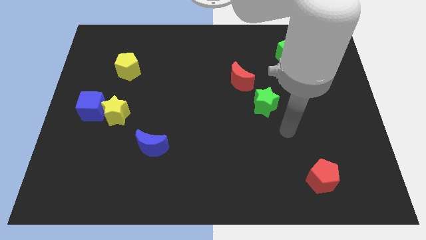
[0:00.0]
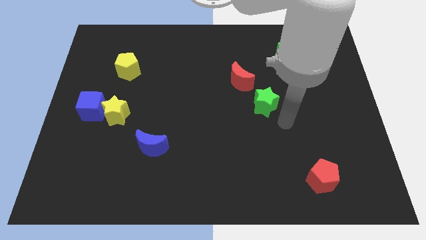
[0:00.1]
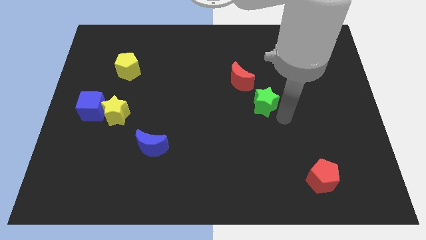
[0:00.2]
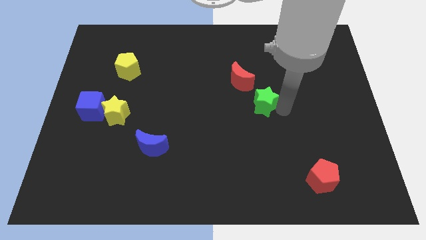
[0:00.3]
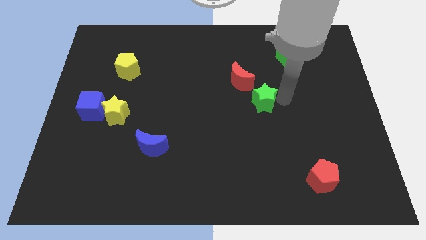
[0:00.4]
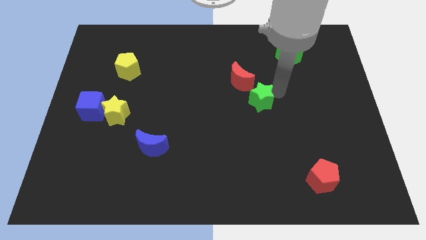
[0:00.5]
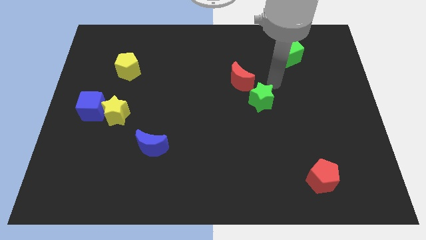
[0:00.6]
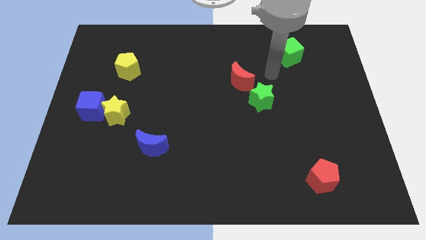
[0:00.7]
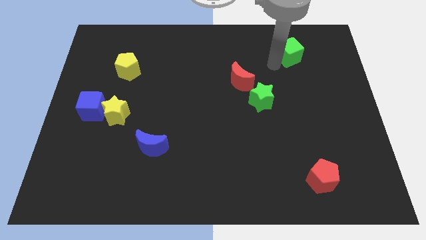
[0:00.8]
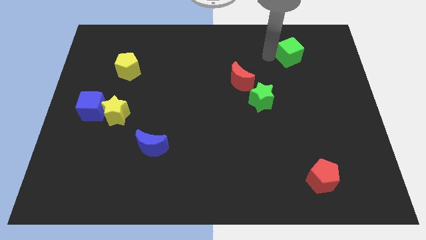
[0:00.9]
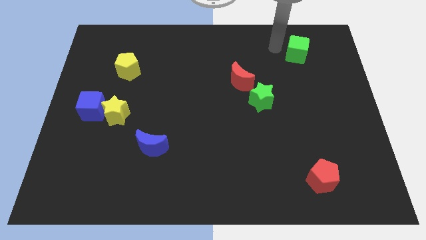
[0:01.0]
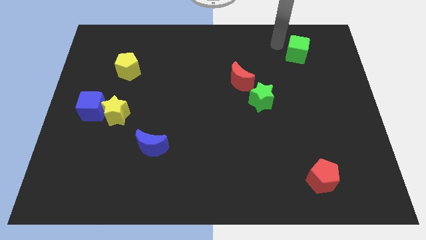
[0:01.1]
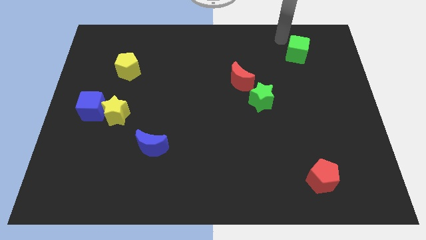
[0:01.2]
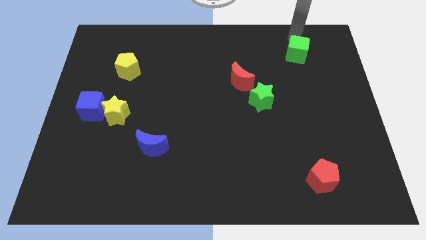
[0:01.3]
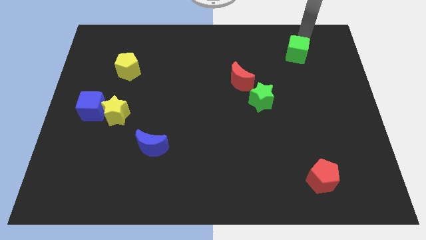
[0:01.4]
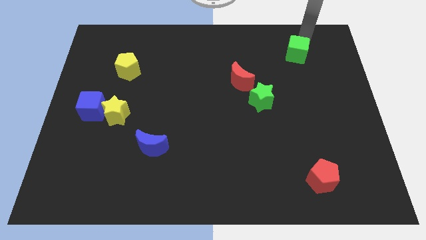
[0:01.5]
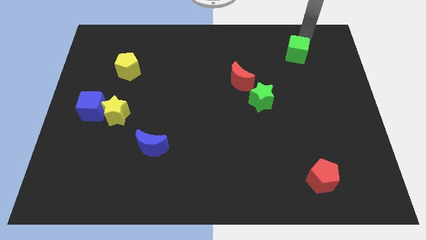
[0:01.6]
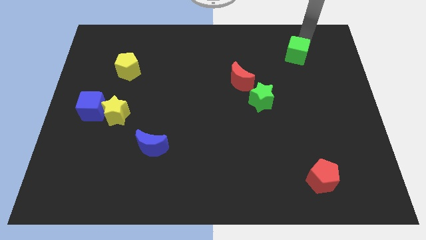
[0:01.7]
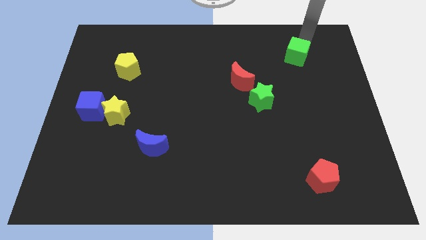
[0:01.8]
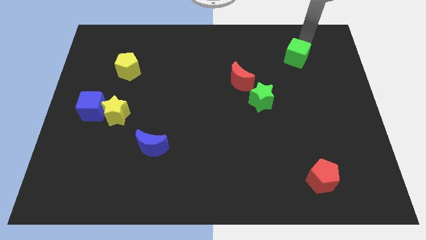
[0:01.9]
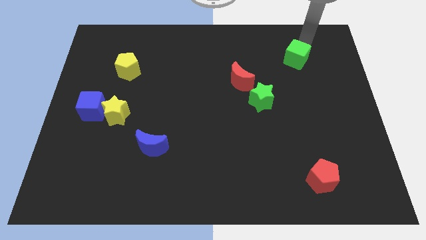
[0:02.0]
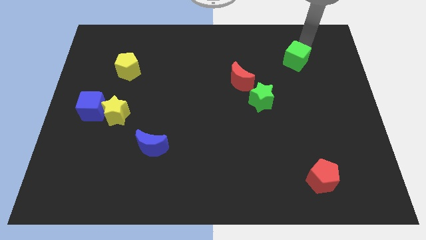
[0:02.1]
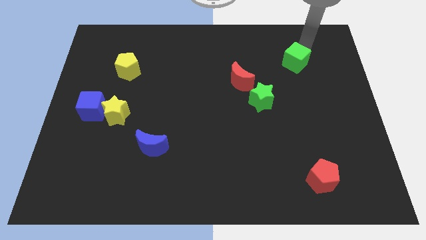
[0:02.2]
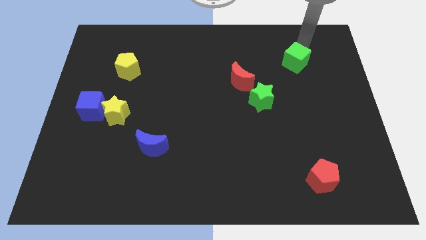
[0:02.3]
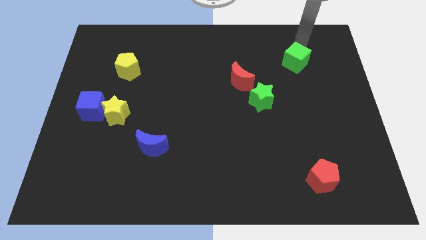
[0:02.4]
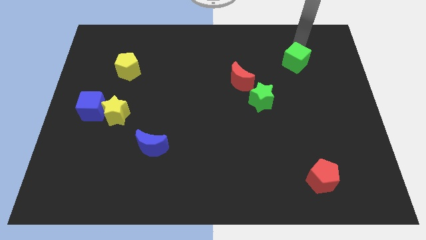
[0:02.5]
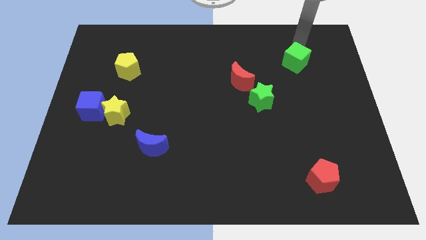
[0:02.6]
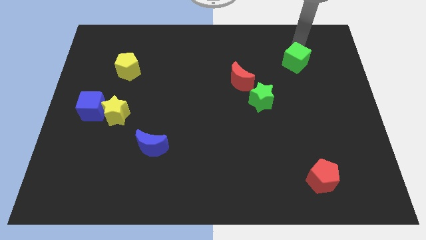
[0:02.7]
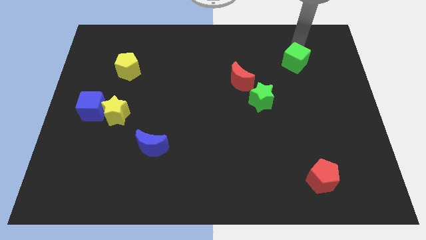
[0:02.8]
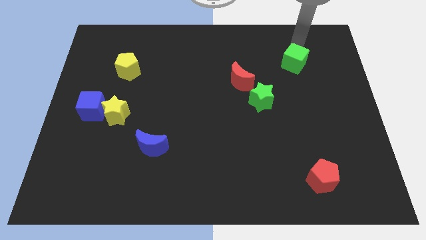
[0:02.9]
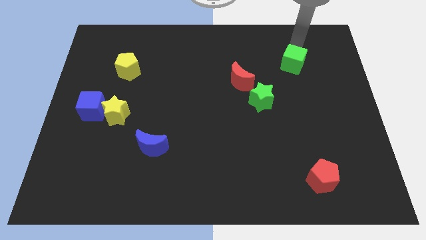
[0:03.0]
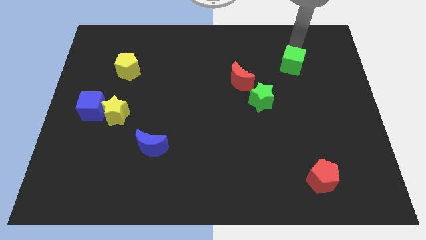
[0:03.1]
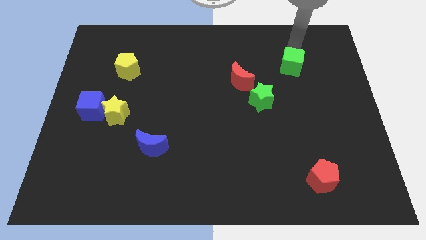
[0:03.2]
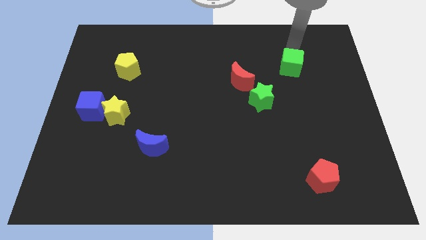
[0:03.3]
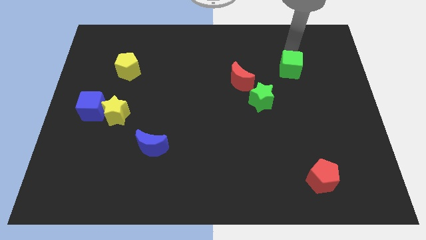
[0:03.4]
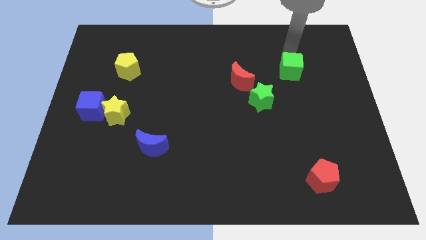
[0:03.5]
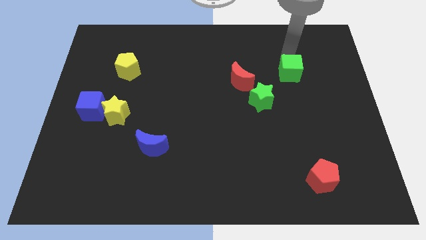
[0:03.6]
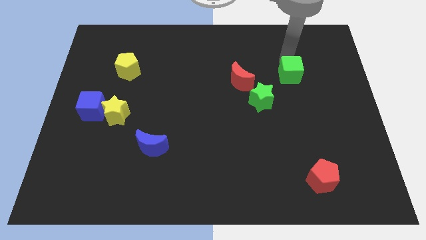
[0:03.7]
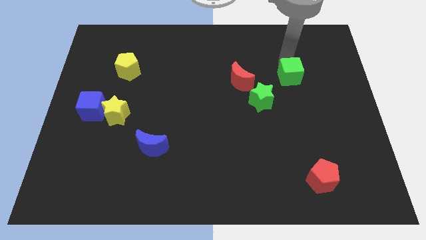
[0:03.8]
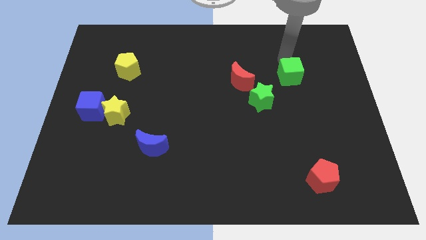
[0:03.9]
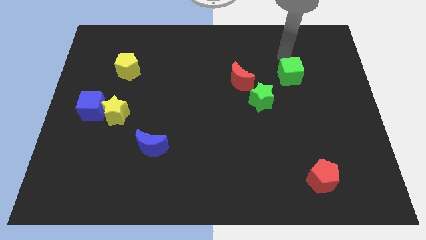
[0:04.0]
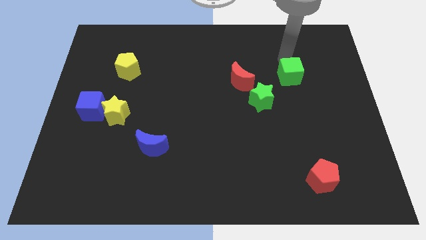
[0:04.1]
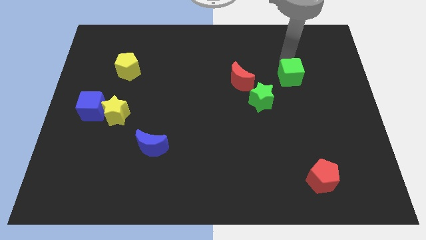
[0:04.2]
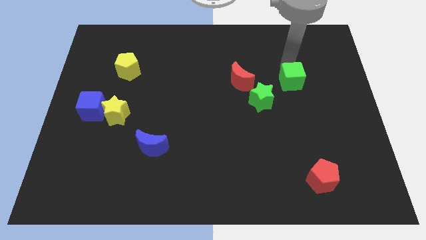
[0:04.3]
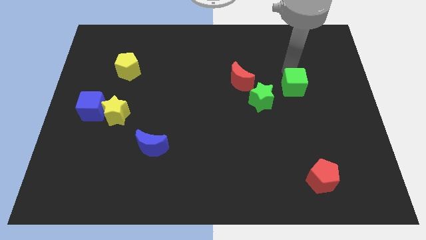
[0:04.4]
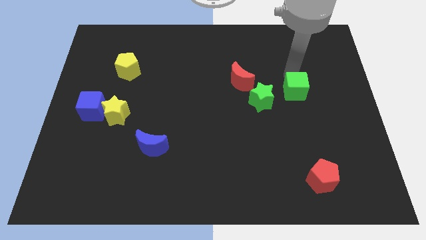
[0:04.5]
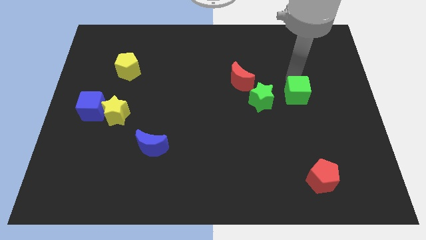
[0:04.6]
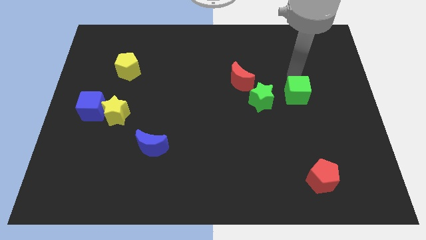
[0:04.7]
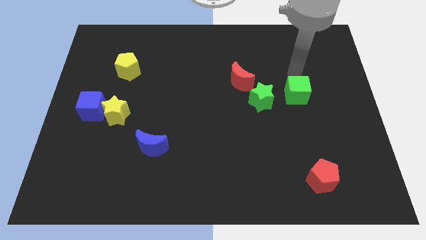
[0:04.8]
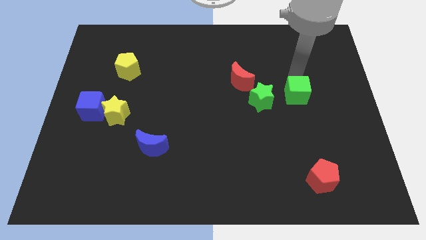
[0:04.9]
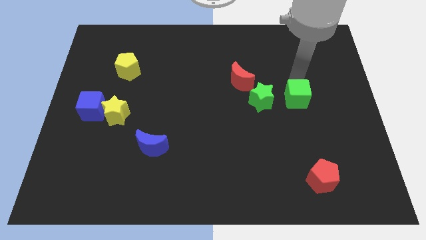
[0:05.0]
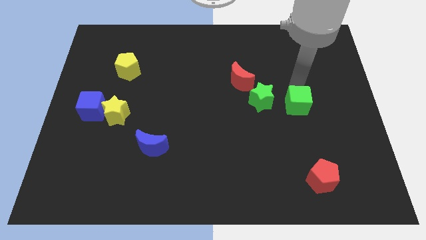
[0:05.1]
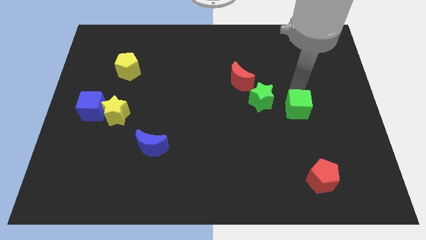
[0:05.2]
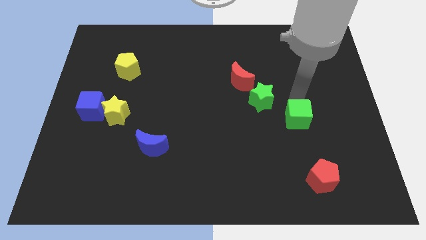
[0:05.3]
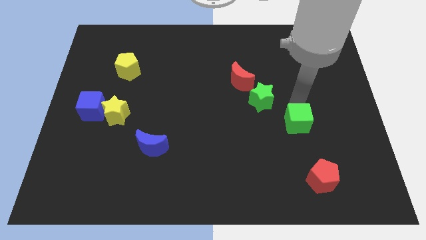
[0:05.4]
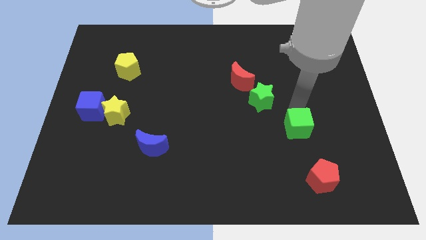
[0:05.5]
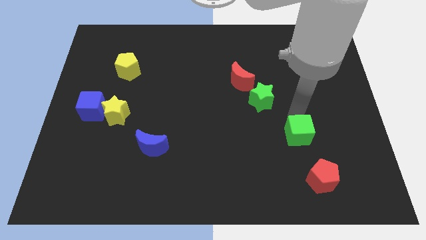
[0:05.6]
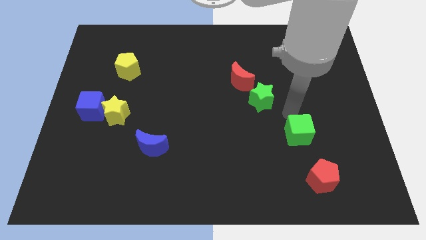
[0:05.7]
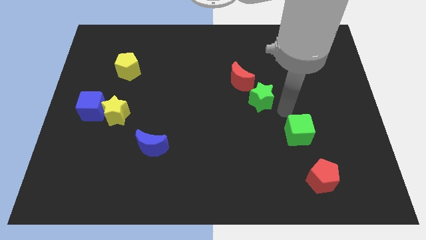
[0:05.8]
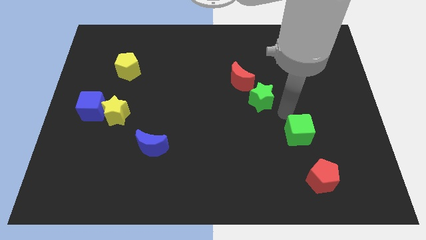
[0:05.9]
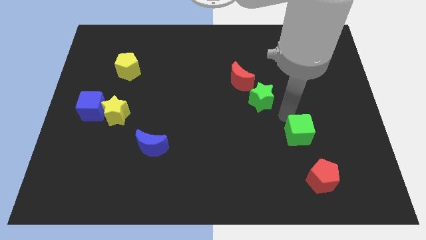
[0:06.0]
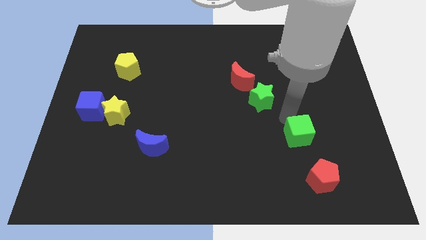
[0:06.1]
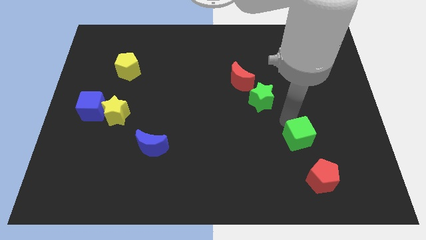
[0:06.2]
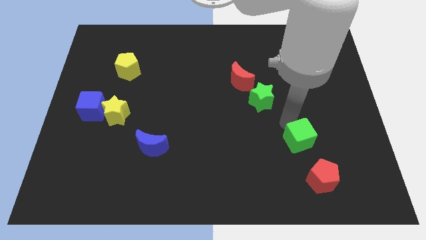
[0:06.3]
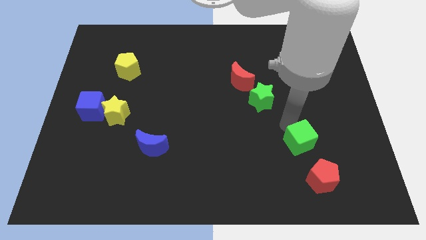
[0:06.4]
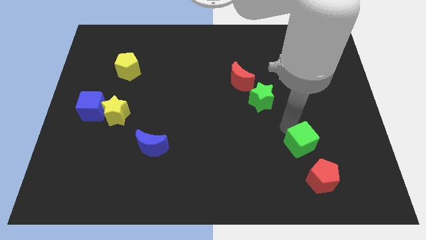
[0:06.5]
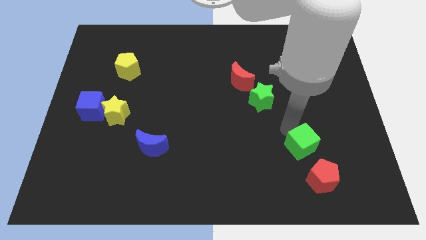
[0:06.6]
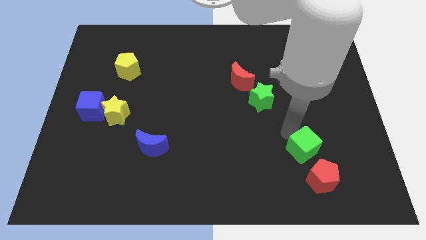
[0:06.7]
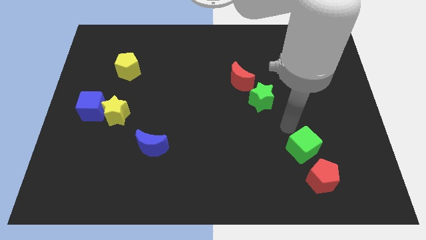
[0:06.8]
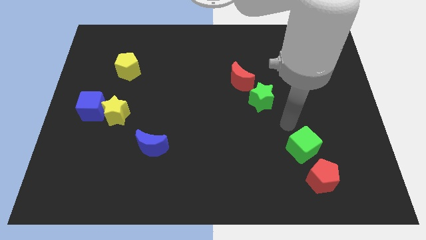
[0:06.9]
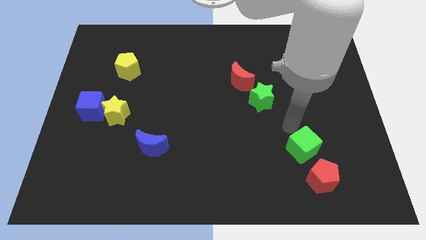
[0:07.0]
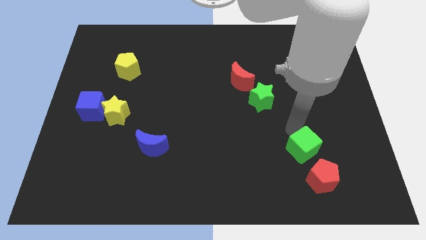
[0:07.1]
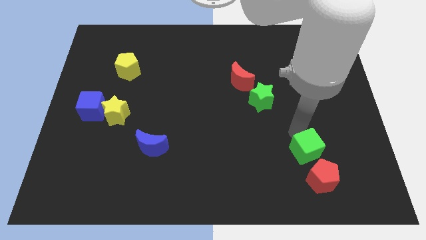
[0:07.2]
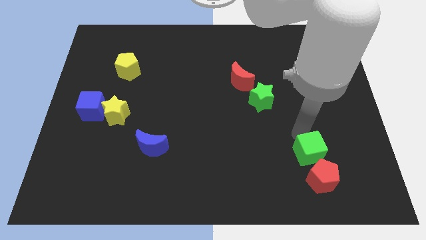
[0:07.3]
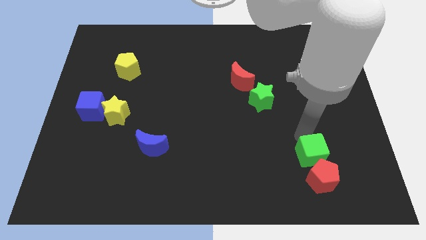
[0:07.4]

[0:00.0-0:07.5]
move the green cube close to the red pentagon

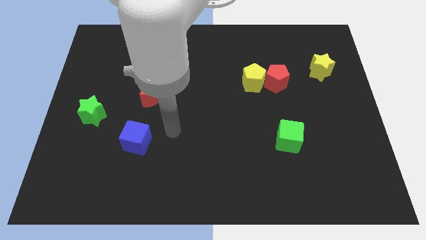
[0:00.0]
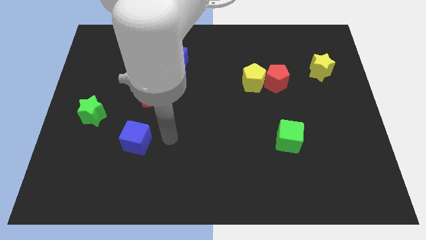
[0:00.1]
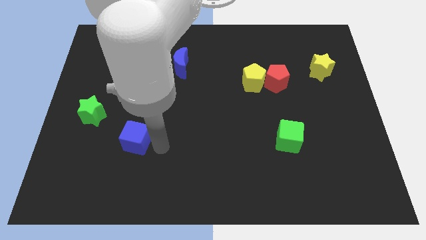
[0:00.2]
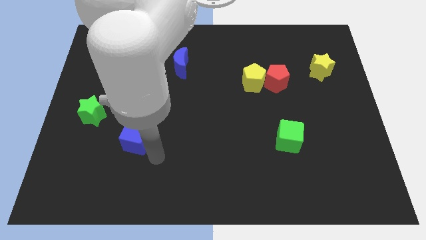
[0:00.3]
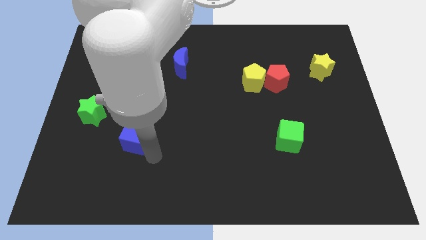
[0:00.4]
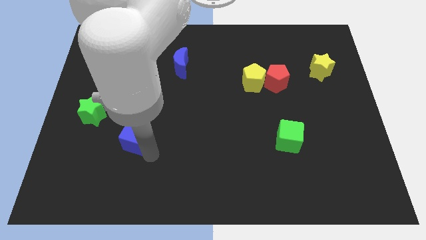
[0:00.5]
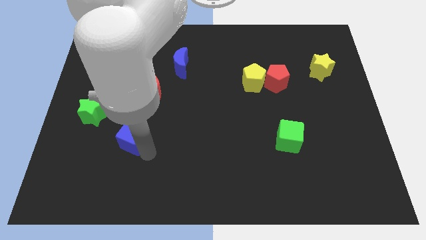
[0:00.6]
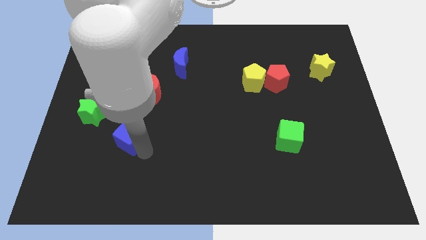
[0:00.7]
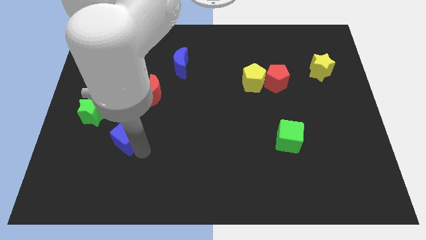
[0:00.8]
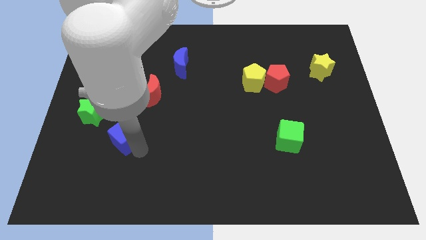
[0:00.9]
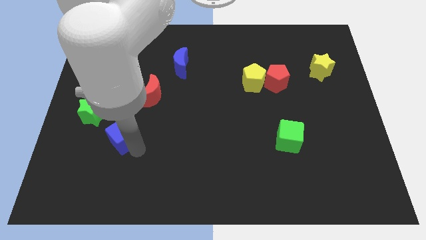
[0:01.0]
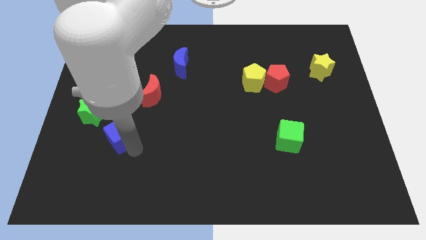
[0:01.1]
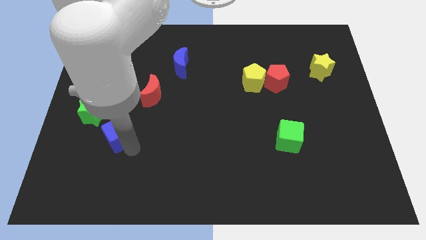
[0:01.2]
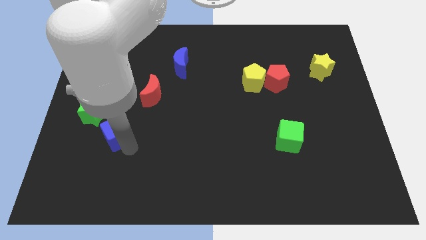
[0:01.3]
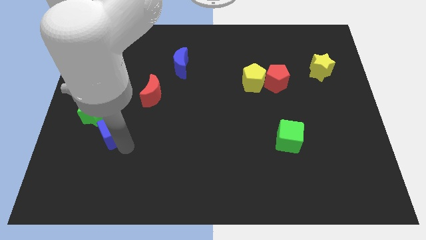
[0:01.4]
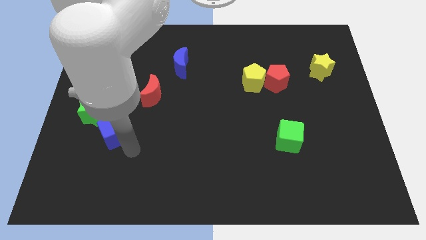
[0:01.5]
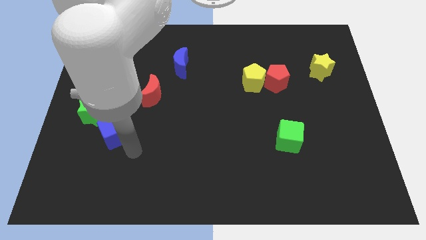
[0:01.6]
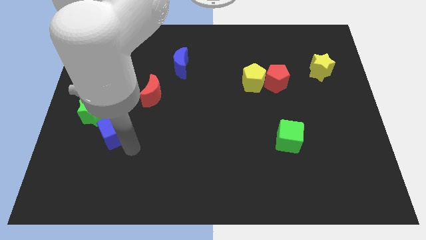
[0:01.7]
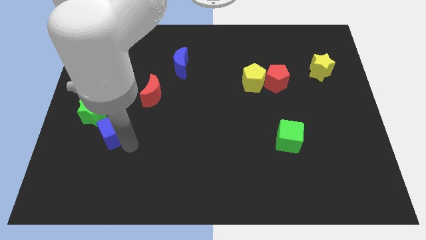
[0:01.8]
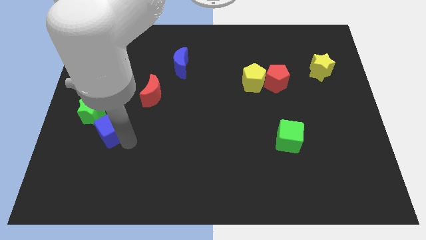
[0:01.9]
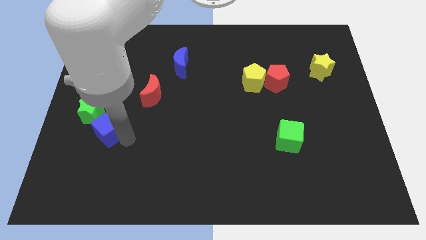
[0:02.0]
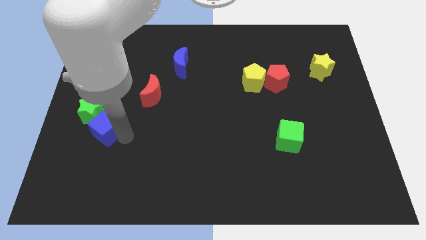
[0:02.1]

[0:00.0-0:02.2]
move the blue cube next to the green star
